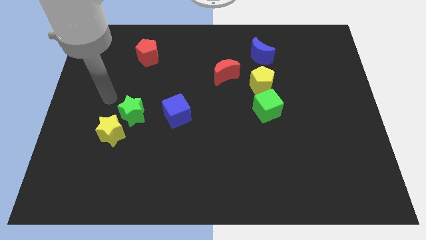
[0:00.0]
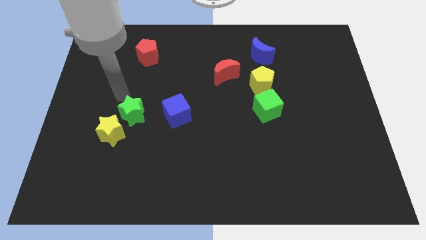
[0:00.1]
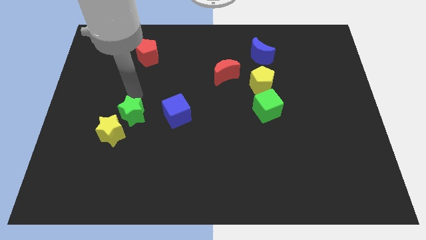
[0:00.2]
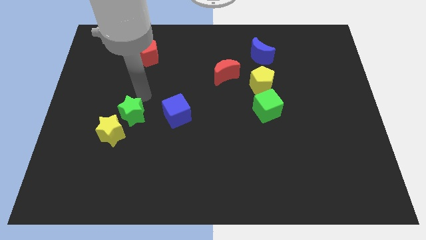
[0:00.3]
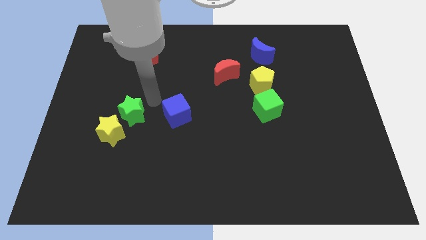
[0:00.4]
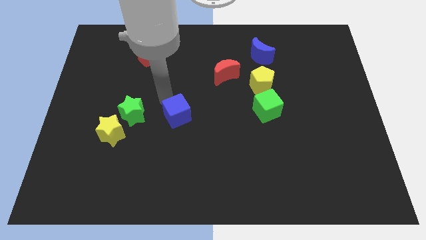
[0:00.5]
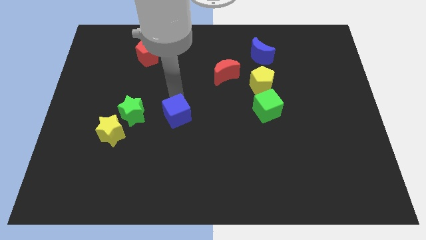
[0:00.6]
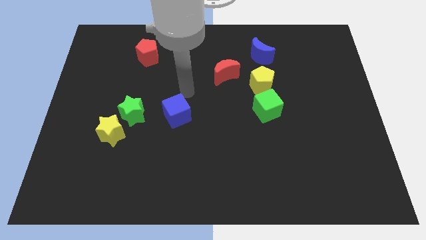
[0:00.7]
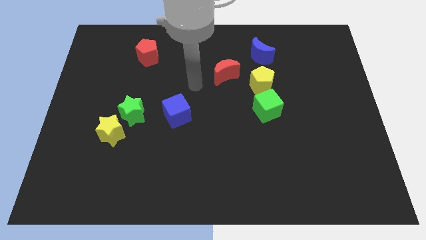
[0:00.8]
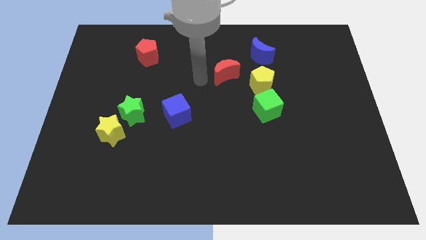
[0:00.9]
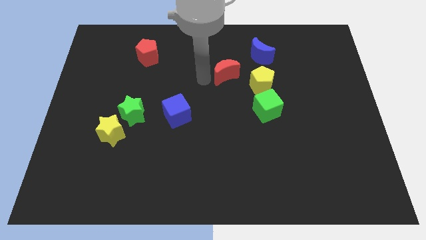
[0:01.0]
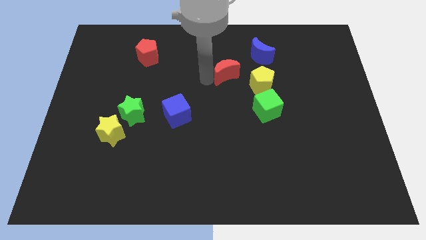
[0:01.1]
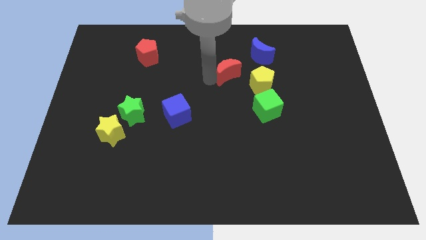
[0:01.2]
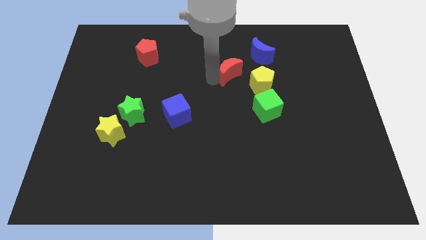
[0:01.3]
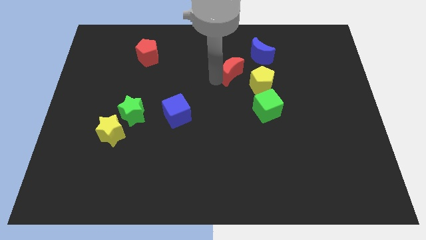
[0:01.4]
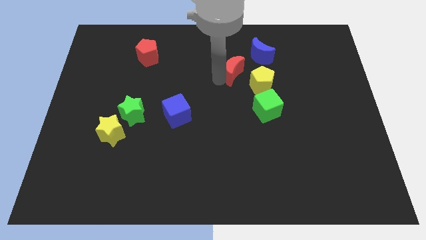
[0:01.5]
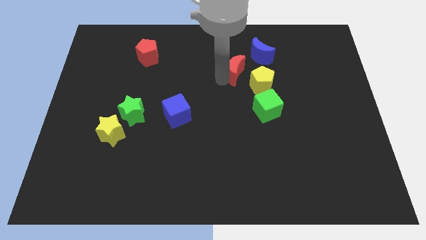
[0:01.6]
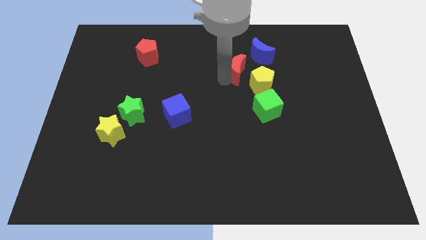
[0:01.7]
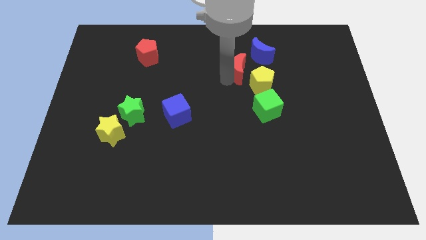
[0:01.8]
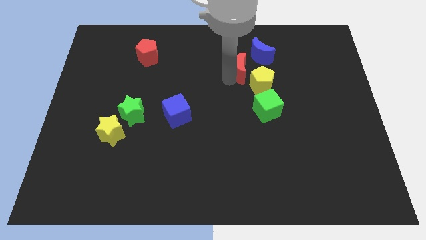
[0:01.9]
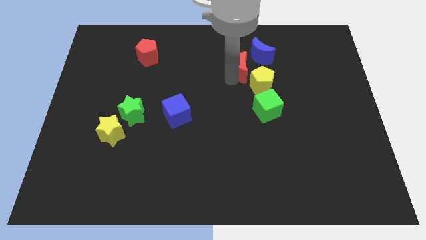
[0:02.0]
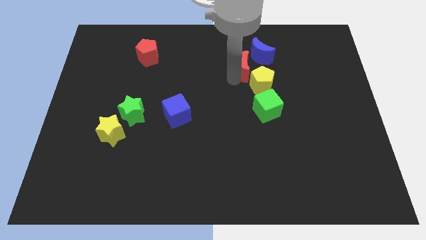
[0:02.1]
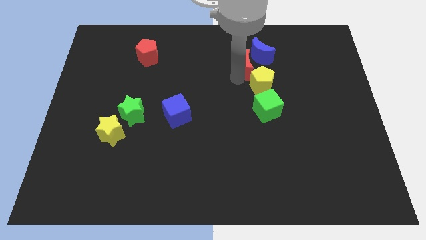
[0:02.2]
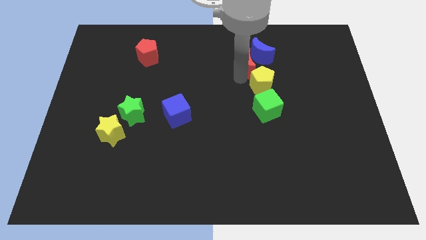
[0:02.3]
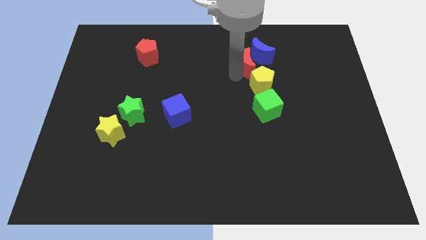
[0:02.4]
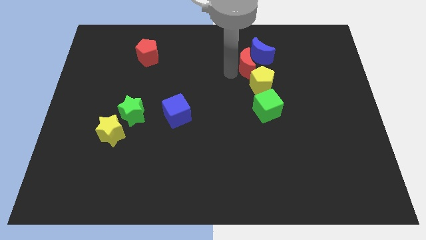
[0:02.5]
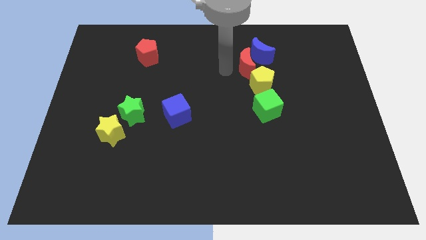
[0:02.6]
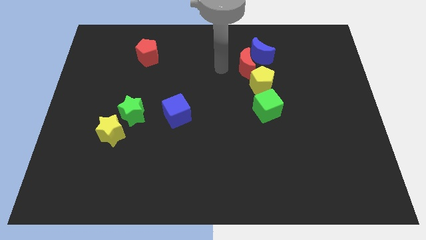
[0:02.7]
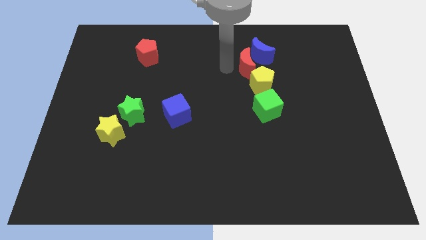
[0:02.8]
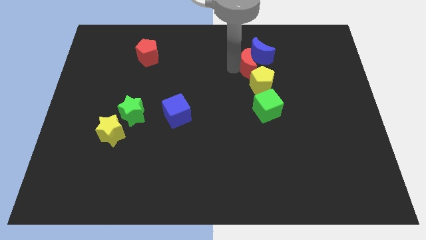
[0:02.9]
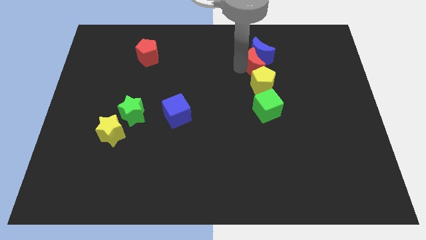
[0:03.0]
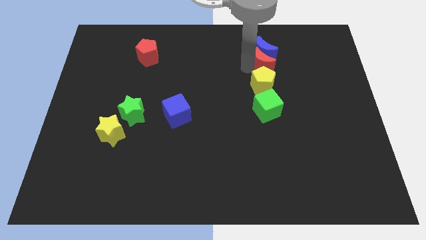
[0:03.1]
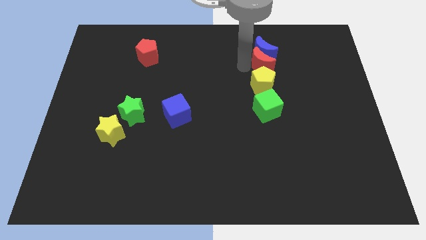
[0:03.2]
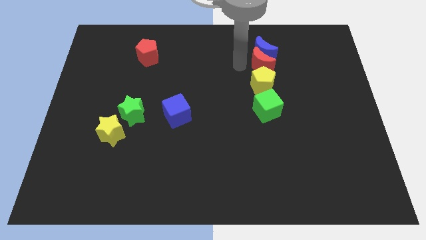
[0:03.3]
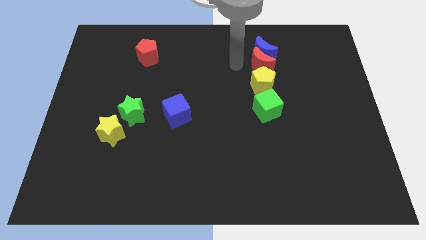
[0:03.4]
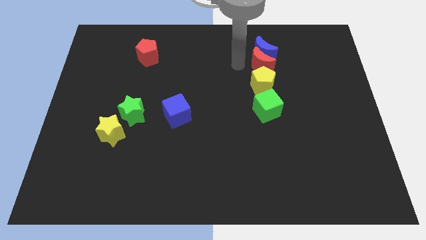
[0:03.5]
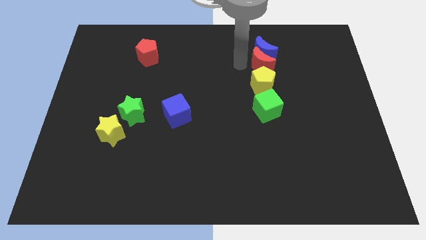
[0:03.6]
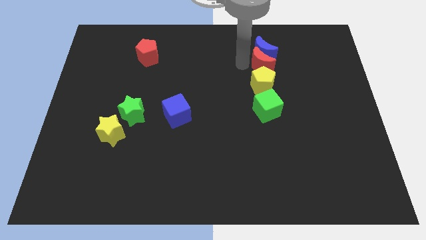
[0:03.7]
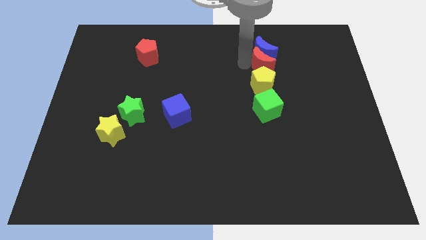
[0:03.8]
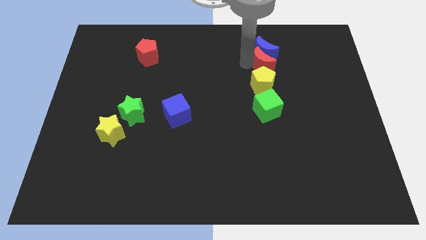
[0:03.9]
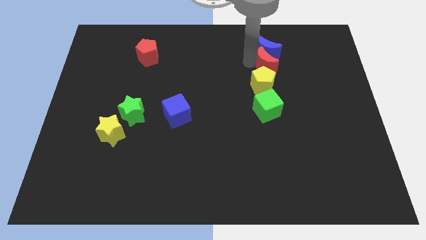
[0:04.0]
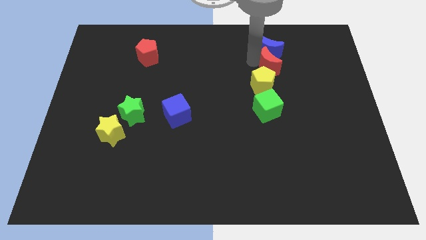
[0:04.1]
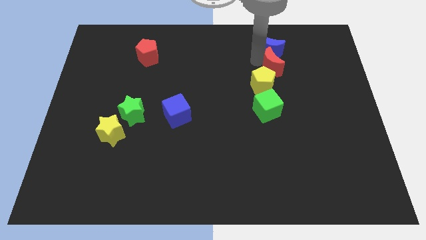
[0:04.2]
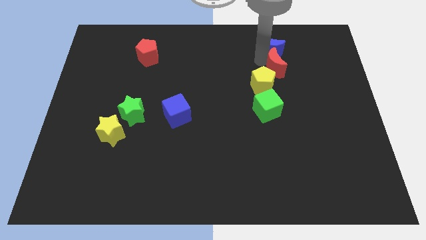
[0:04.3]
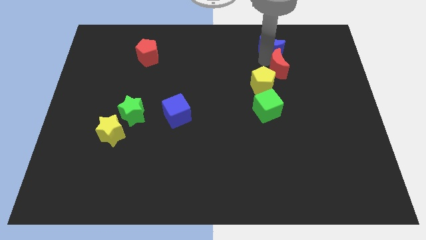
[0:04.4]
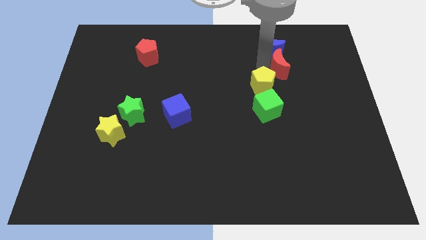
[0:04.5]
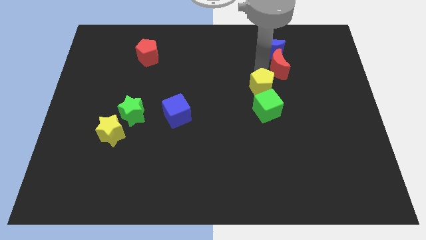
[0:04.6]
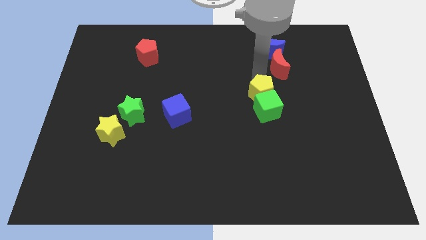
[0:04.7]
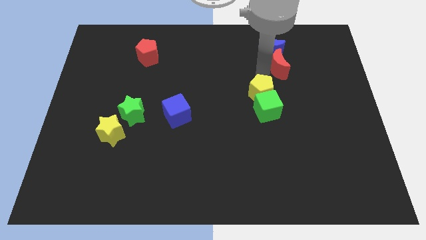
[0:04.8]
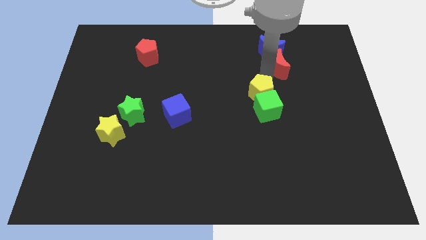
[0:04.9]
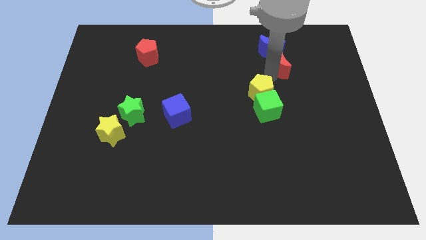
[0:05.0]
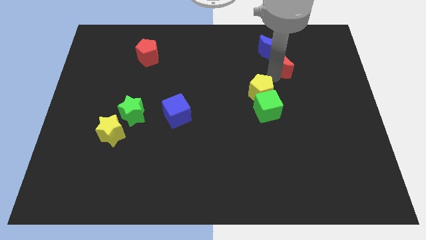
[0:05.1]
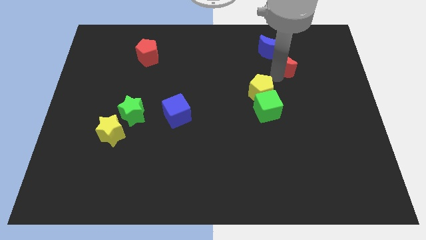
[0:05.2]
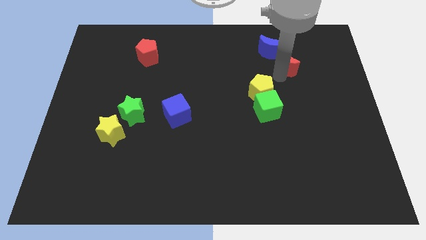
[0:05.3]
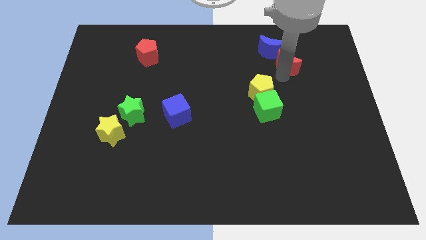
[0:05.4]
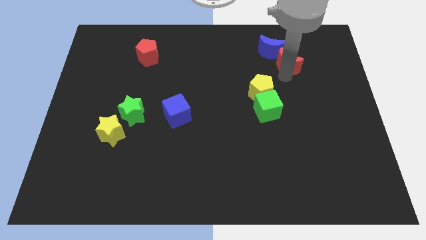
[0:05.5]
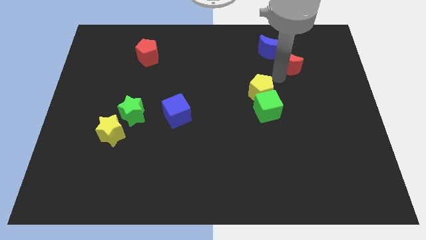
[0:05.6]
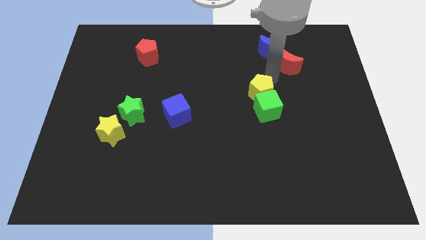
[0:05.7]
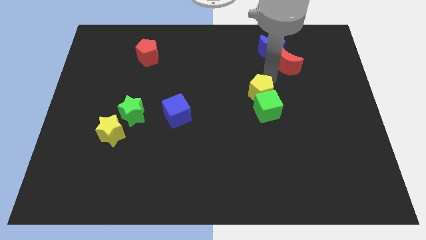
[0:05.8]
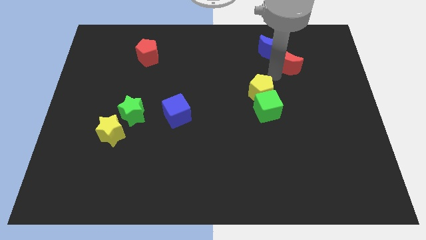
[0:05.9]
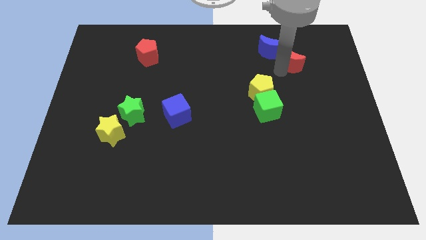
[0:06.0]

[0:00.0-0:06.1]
slide the red moon to the right side of the blue moon

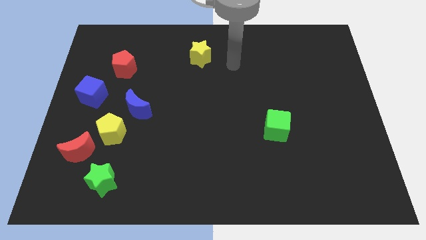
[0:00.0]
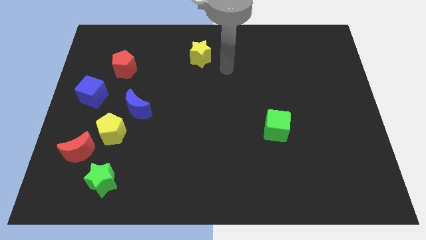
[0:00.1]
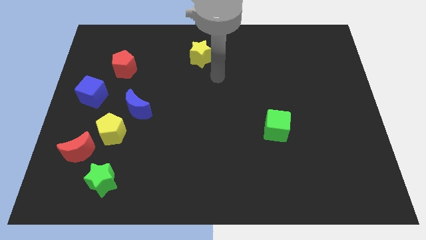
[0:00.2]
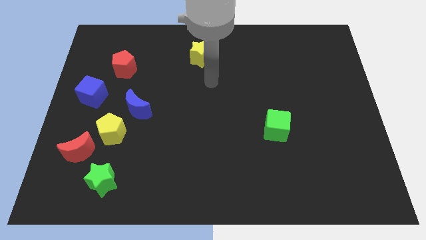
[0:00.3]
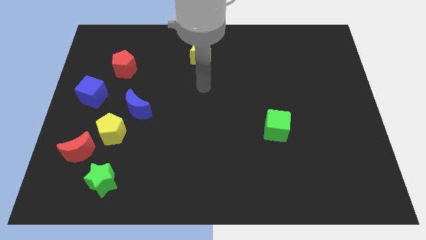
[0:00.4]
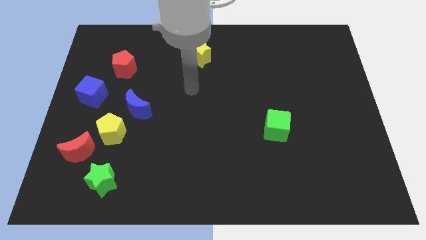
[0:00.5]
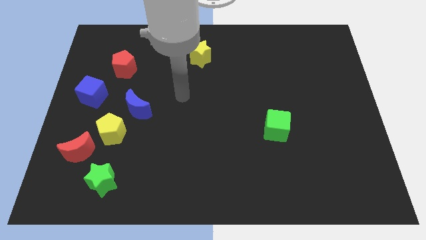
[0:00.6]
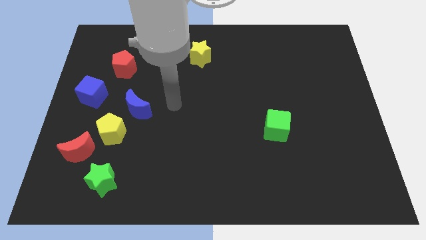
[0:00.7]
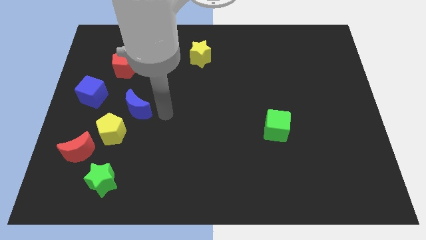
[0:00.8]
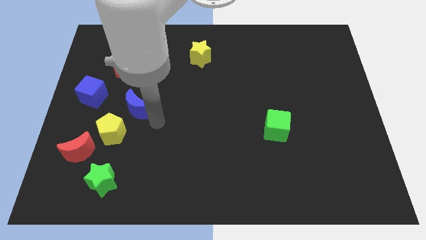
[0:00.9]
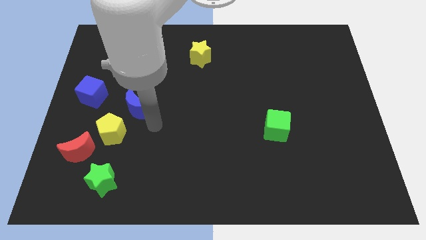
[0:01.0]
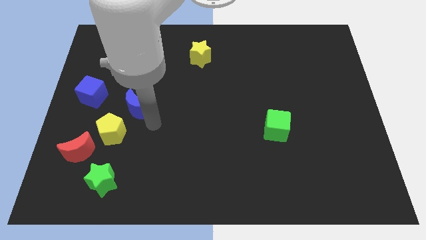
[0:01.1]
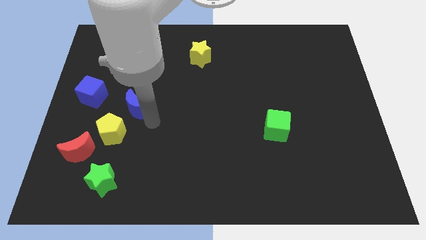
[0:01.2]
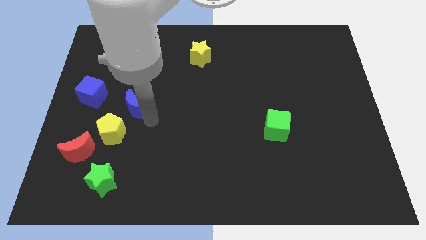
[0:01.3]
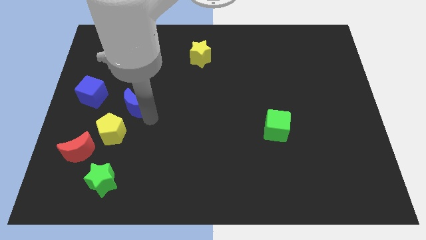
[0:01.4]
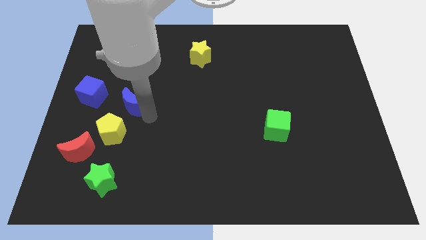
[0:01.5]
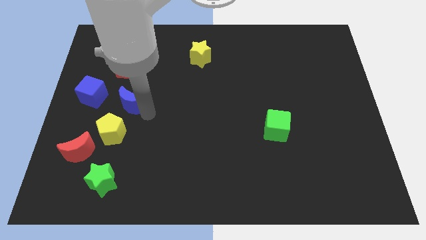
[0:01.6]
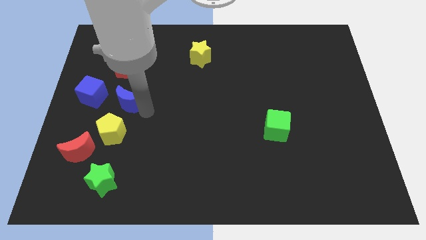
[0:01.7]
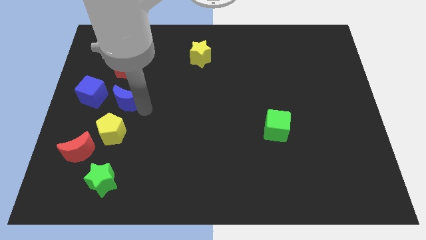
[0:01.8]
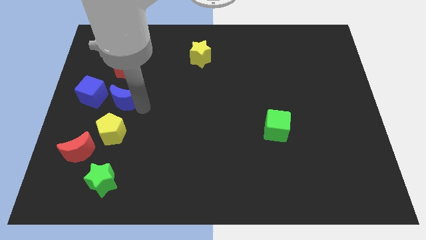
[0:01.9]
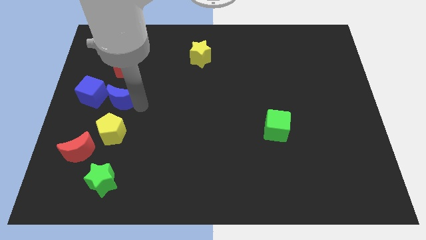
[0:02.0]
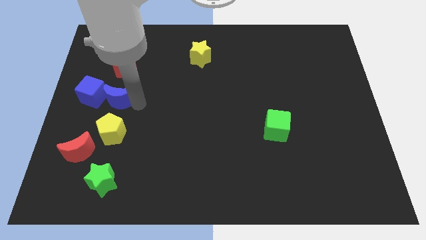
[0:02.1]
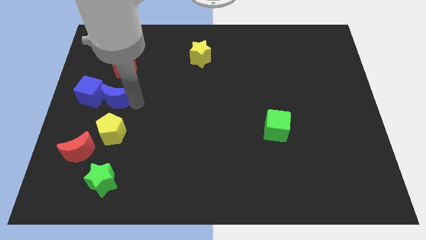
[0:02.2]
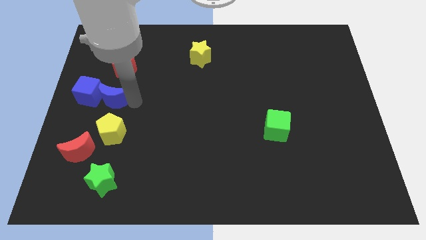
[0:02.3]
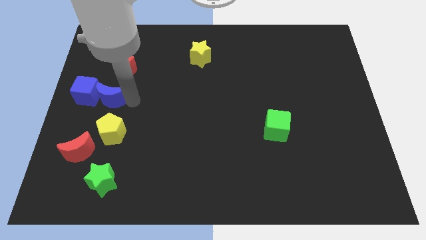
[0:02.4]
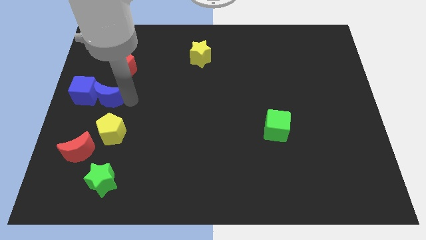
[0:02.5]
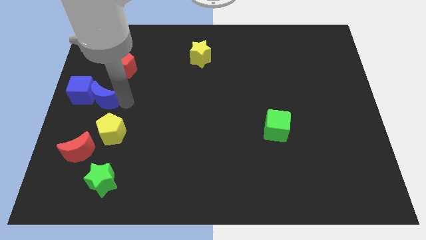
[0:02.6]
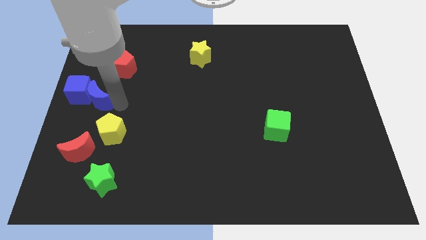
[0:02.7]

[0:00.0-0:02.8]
put the blue moon diagonally down and to the left of the red pentagon
